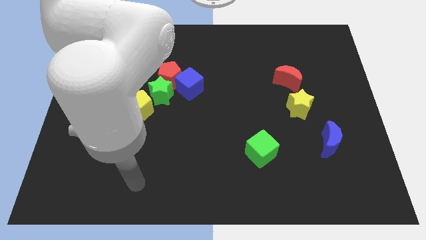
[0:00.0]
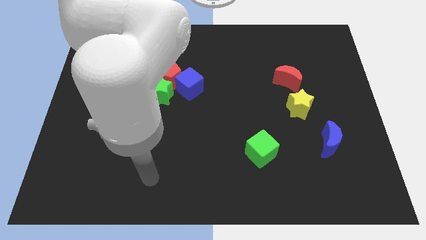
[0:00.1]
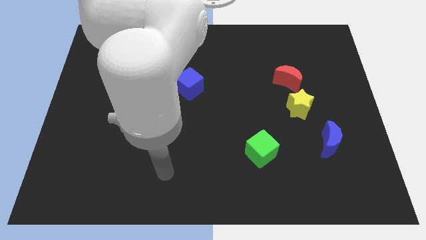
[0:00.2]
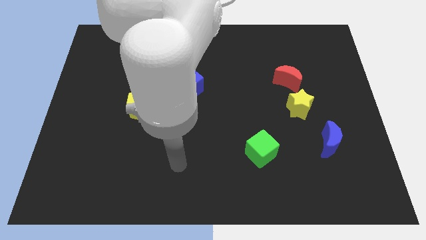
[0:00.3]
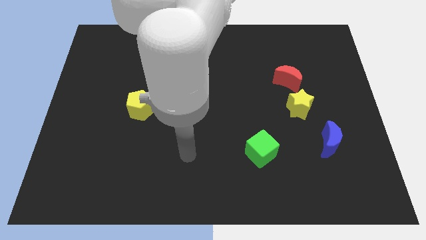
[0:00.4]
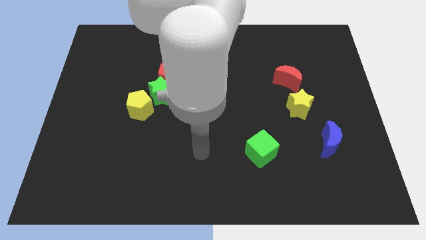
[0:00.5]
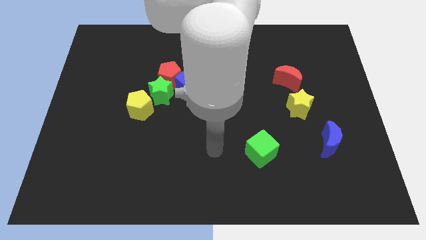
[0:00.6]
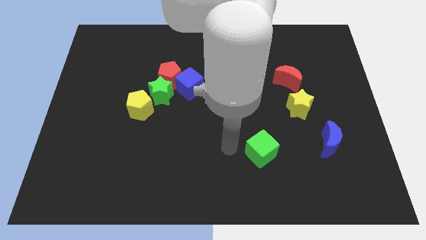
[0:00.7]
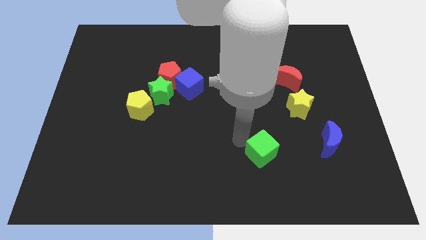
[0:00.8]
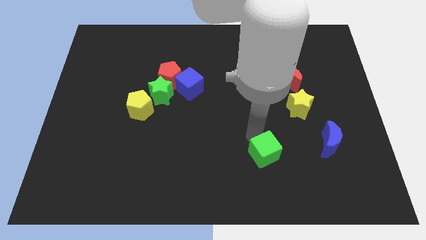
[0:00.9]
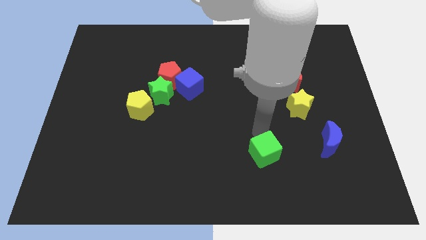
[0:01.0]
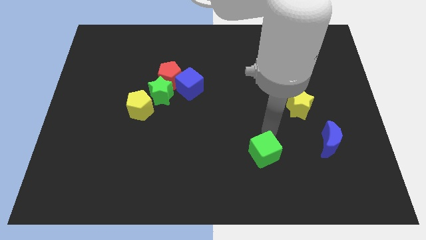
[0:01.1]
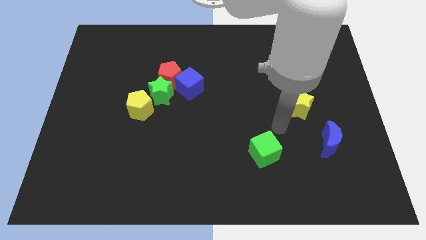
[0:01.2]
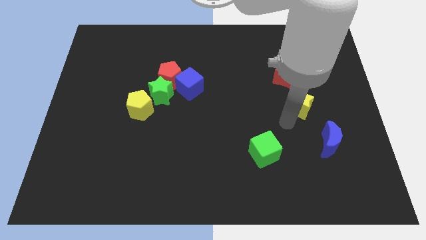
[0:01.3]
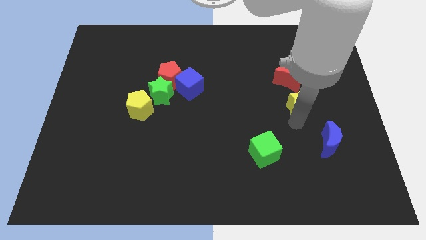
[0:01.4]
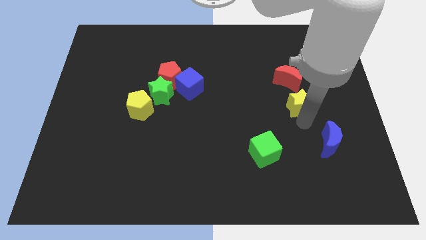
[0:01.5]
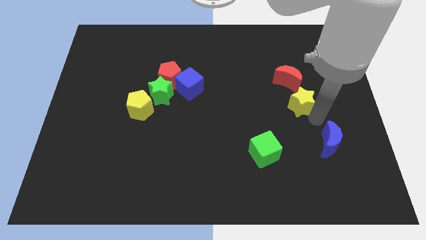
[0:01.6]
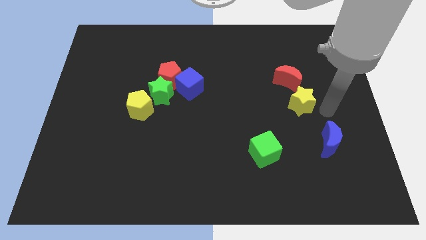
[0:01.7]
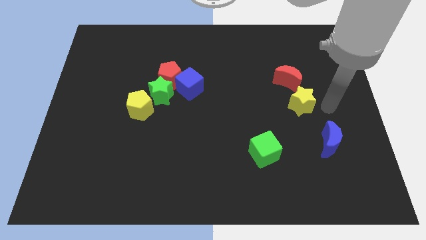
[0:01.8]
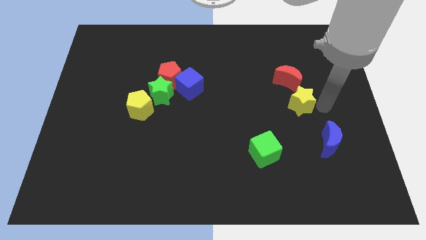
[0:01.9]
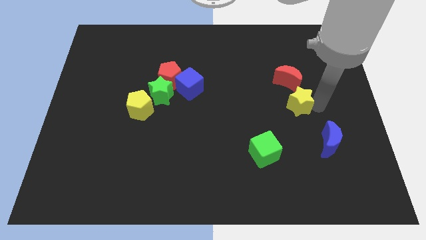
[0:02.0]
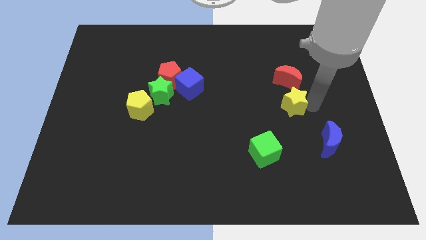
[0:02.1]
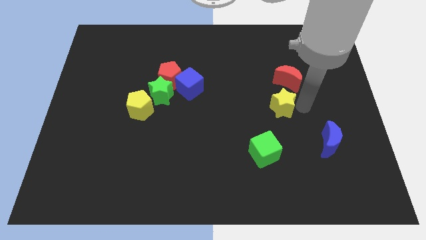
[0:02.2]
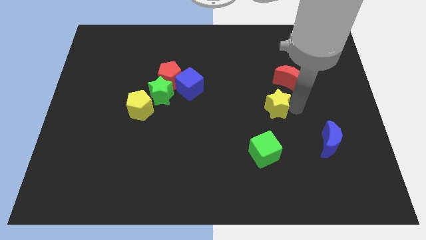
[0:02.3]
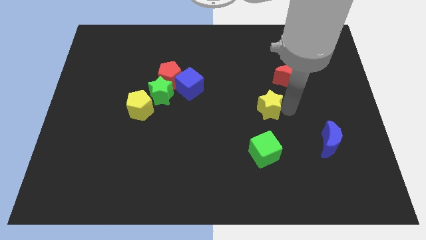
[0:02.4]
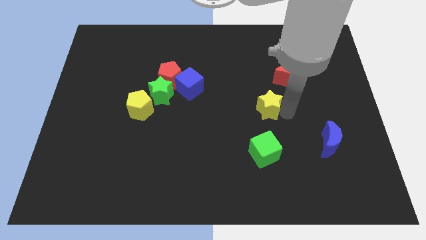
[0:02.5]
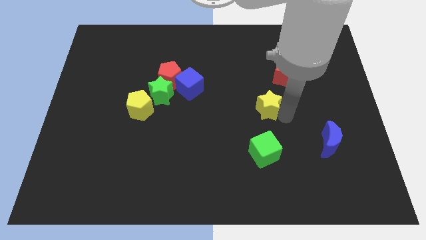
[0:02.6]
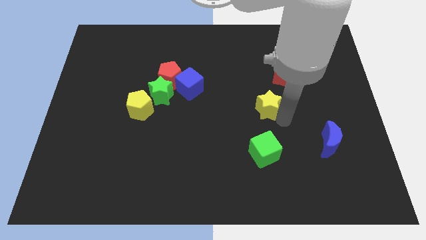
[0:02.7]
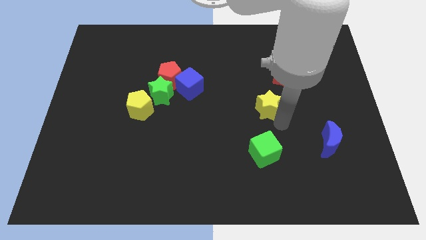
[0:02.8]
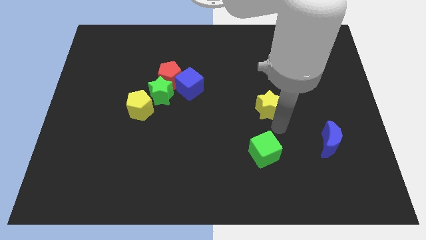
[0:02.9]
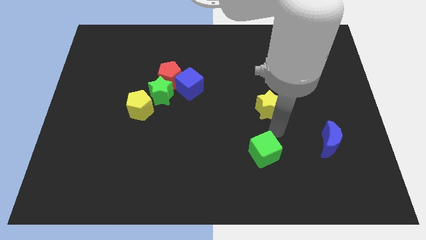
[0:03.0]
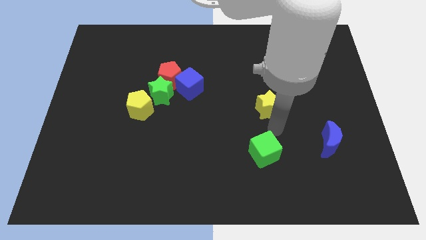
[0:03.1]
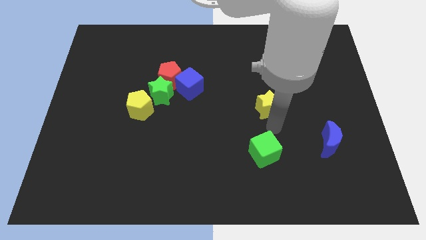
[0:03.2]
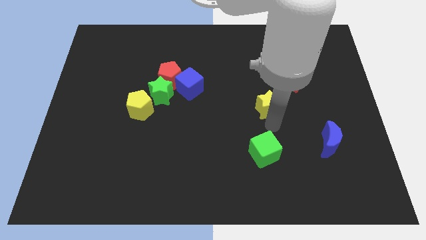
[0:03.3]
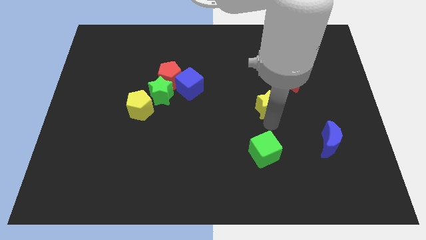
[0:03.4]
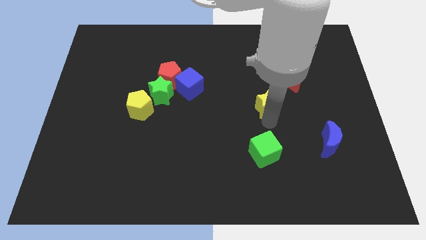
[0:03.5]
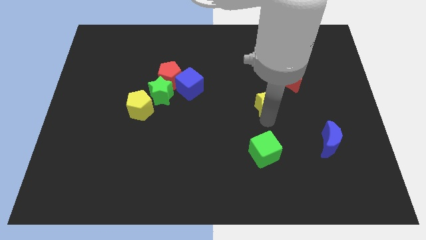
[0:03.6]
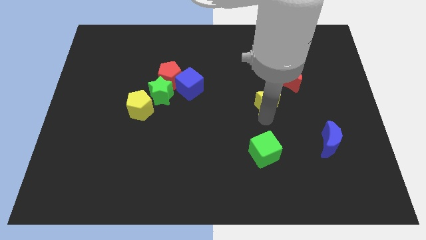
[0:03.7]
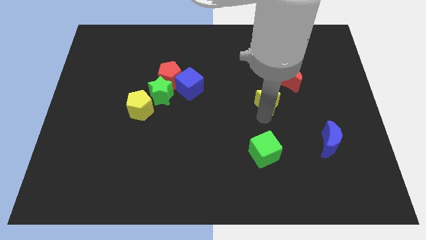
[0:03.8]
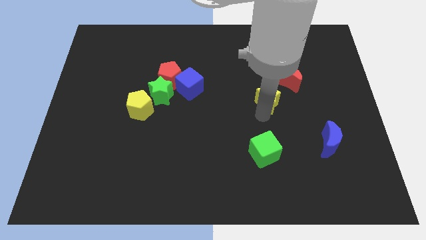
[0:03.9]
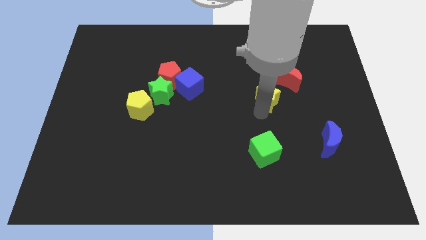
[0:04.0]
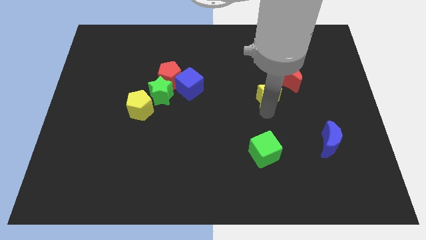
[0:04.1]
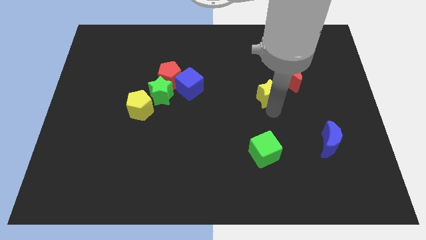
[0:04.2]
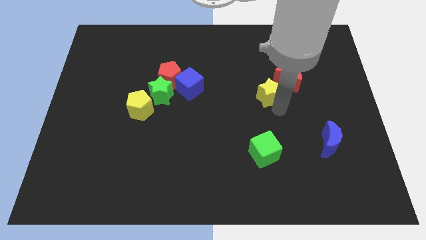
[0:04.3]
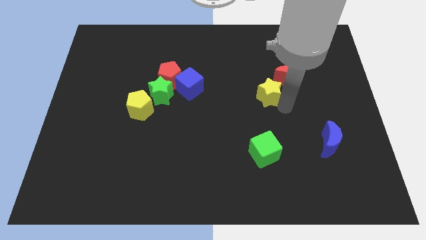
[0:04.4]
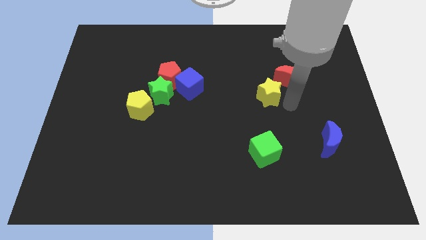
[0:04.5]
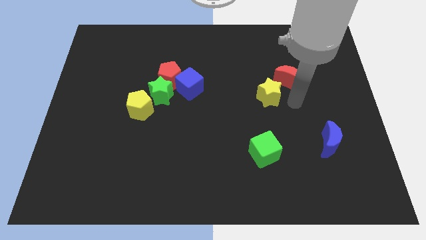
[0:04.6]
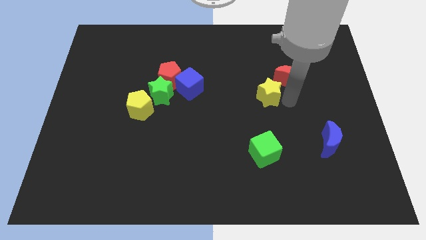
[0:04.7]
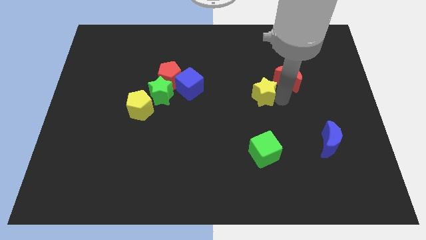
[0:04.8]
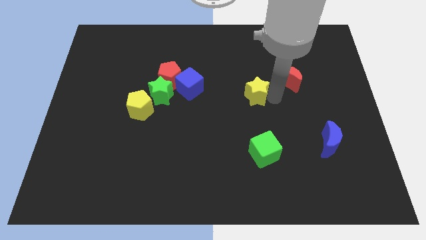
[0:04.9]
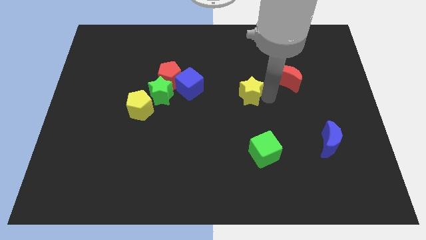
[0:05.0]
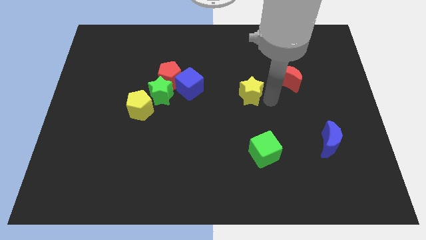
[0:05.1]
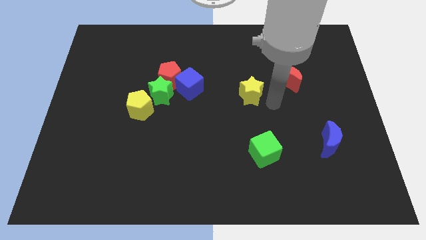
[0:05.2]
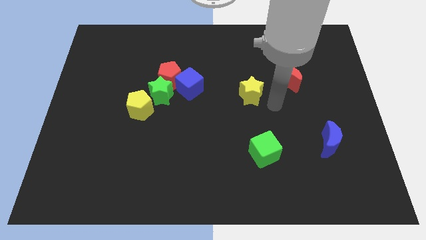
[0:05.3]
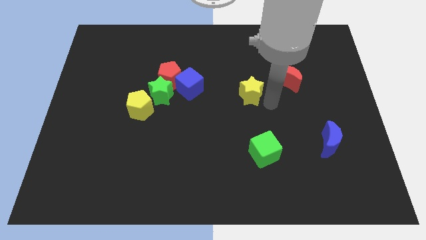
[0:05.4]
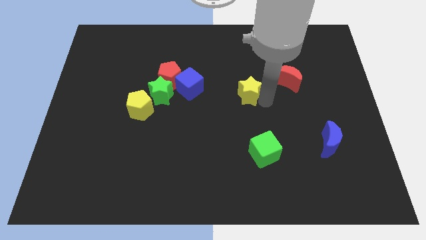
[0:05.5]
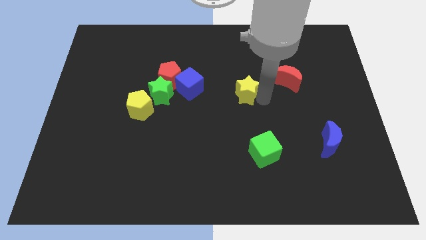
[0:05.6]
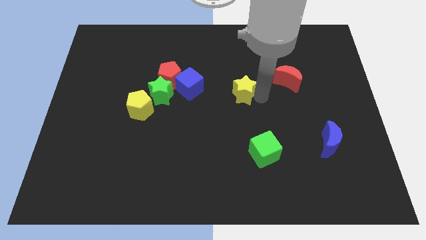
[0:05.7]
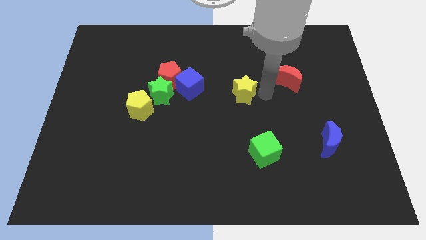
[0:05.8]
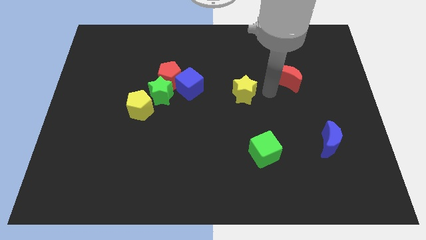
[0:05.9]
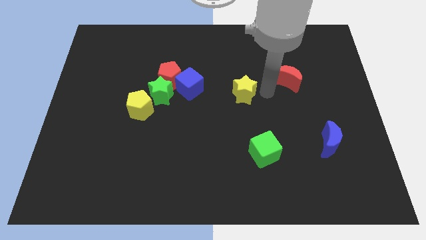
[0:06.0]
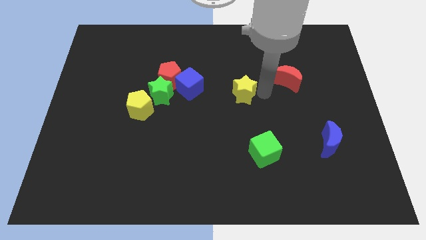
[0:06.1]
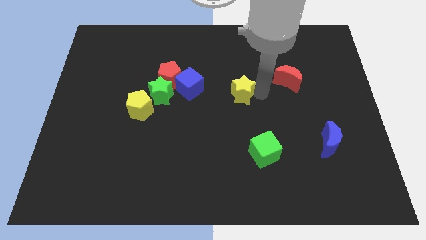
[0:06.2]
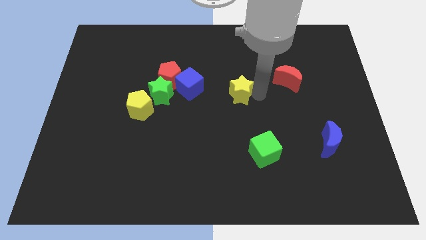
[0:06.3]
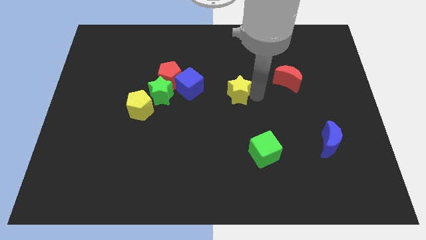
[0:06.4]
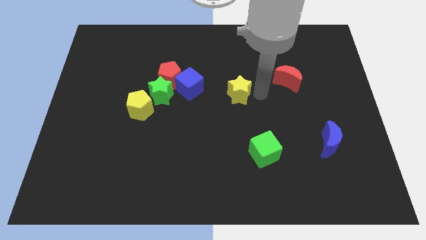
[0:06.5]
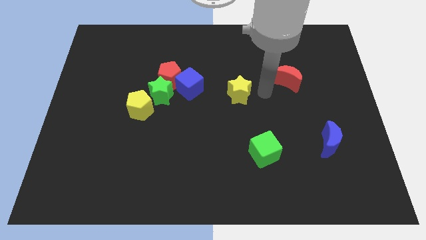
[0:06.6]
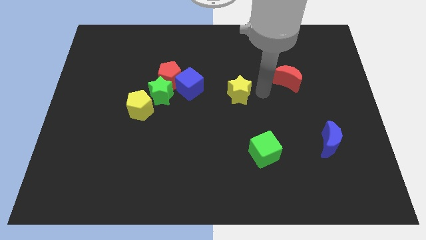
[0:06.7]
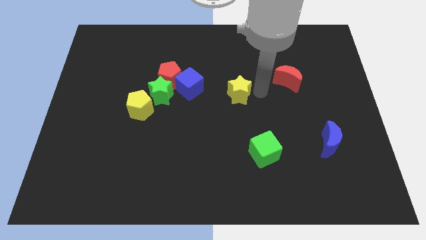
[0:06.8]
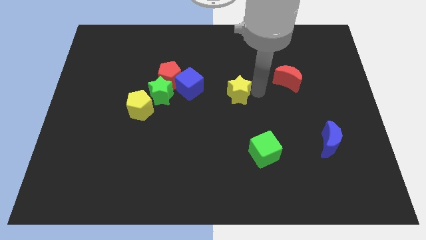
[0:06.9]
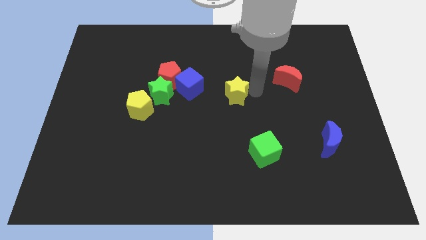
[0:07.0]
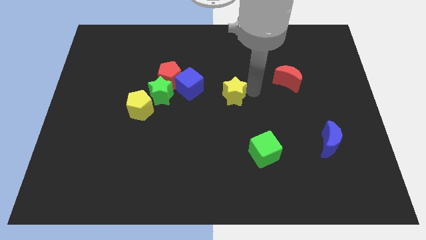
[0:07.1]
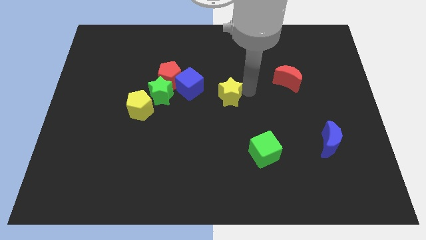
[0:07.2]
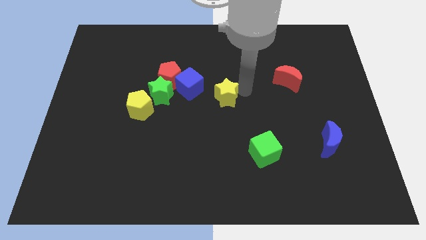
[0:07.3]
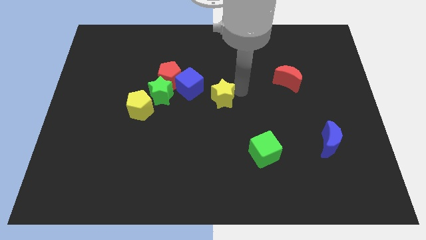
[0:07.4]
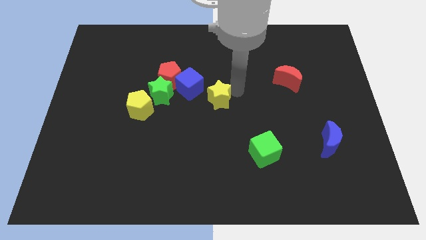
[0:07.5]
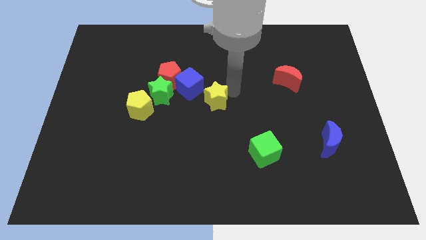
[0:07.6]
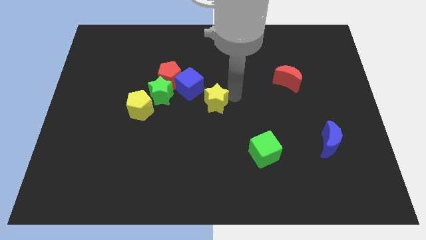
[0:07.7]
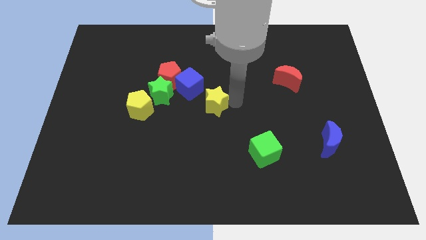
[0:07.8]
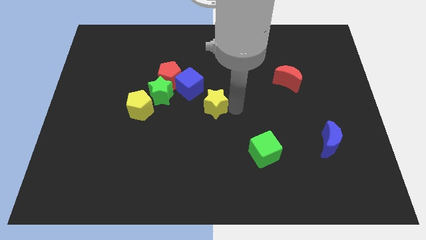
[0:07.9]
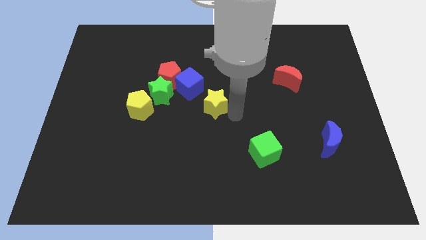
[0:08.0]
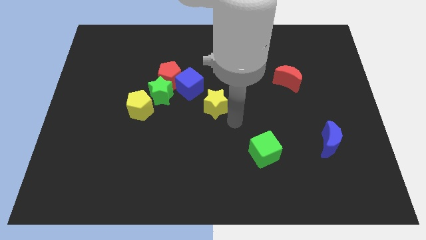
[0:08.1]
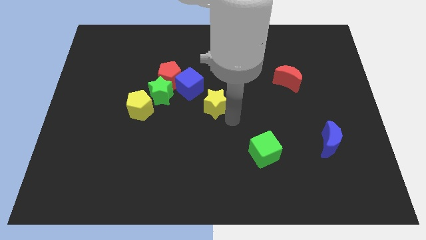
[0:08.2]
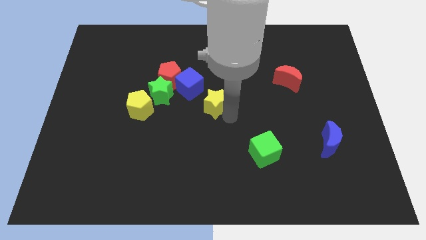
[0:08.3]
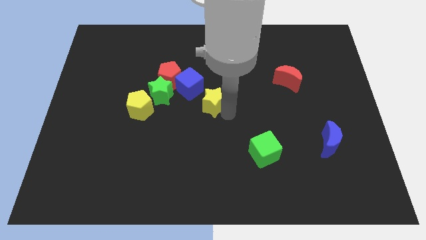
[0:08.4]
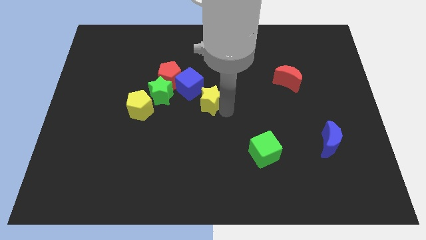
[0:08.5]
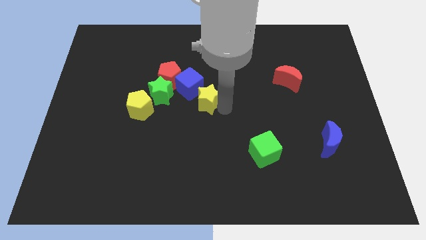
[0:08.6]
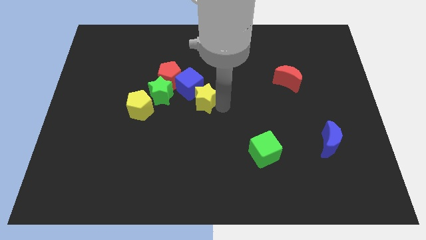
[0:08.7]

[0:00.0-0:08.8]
put the yellow star to the blue cube
